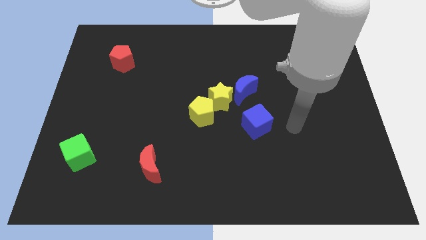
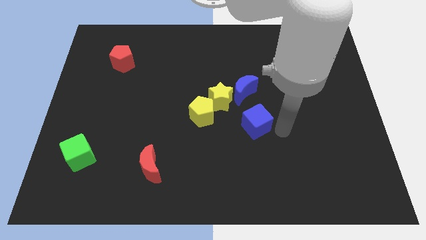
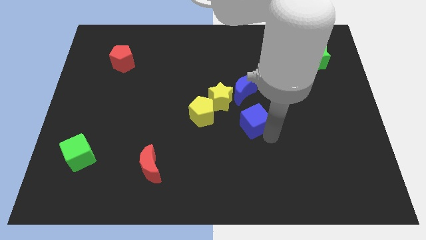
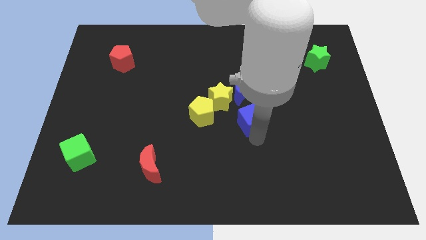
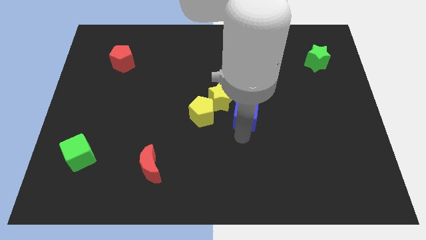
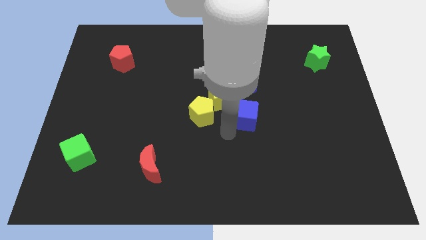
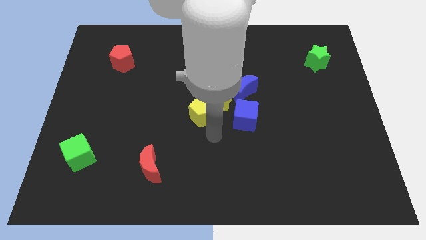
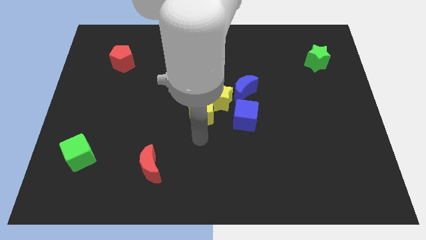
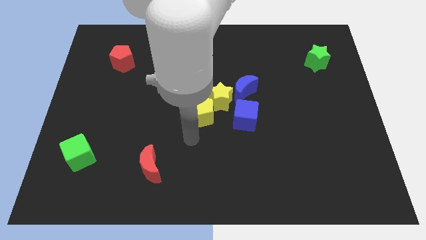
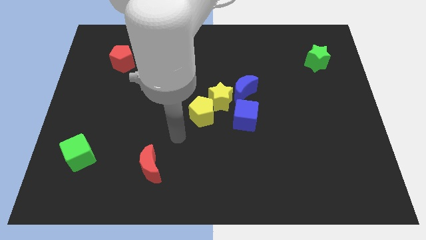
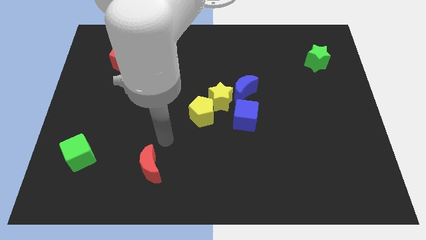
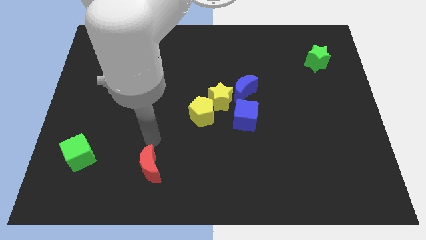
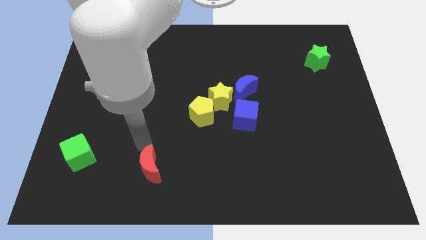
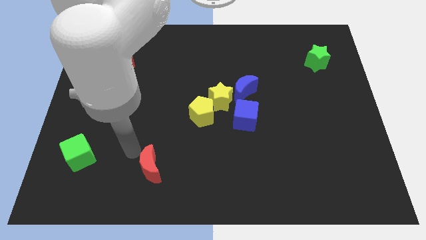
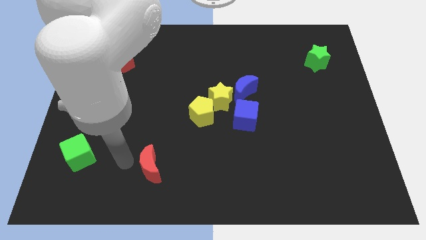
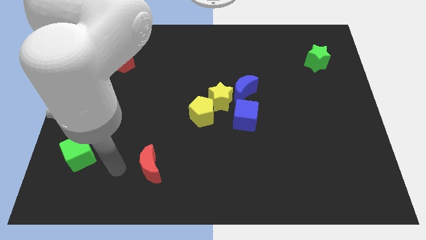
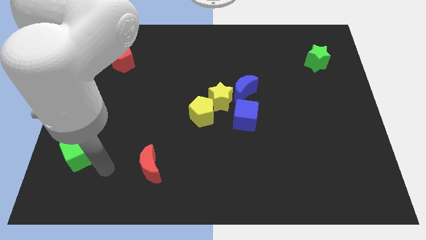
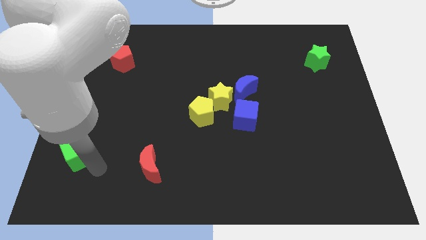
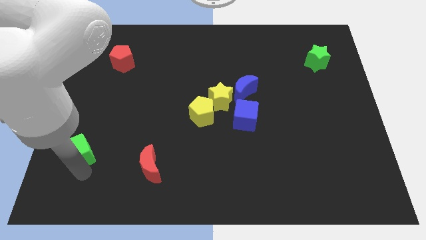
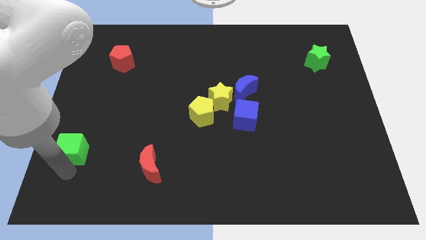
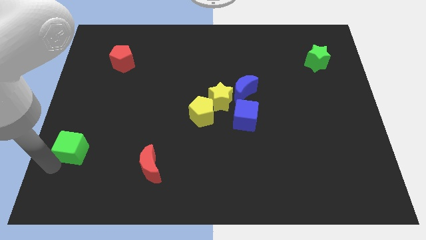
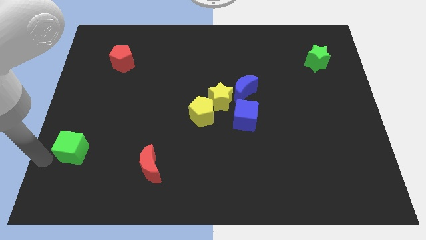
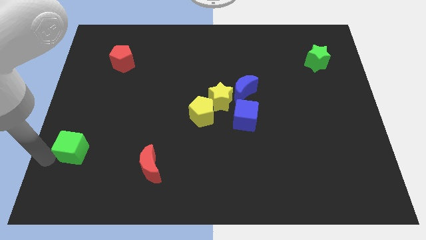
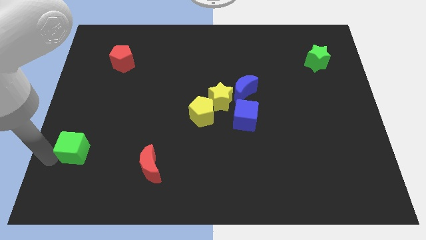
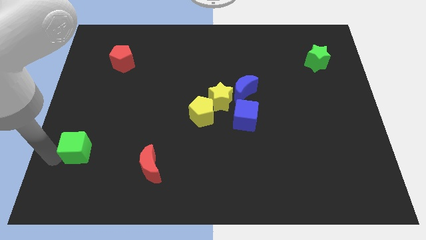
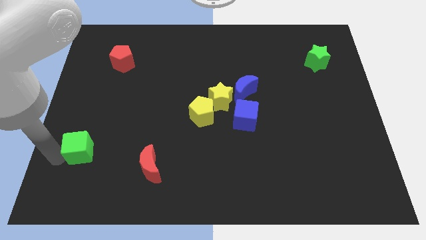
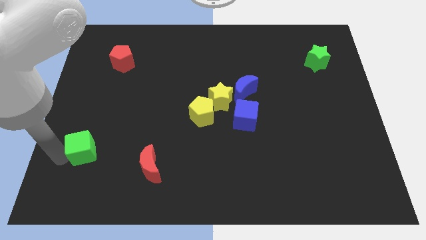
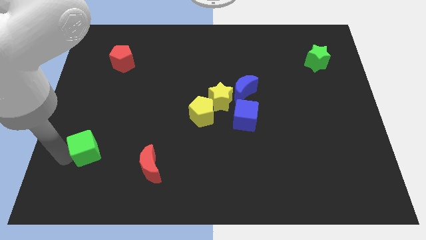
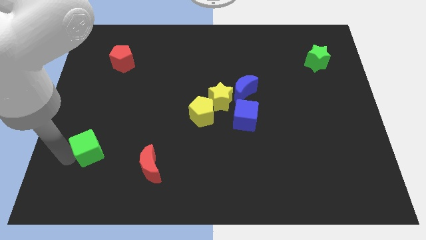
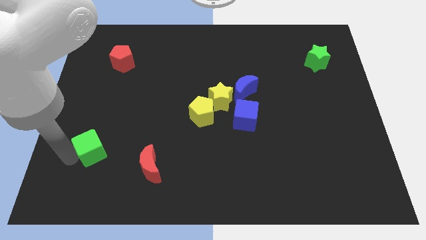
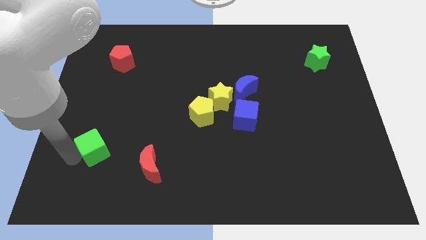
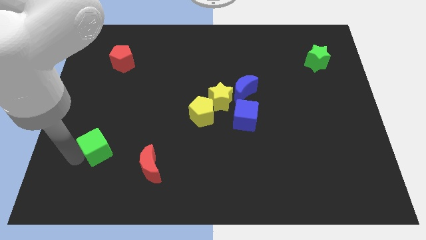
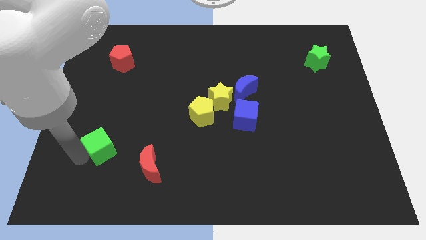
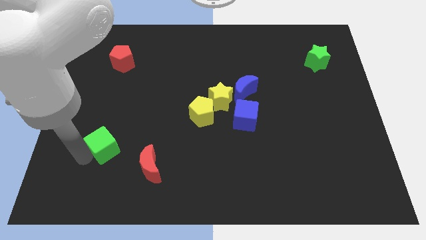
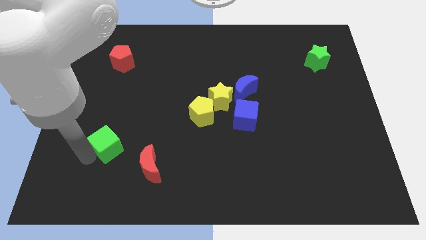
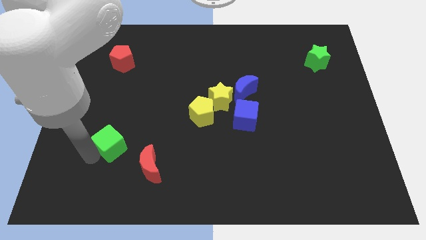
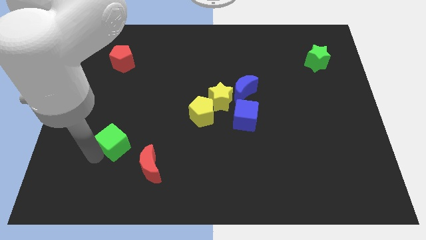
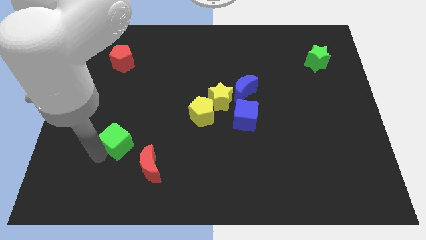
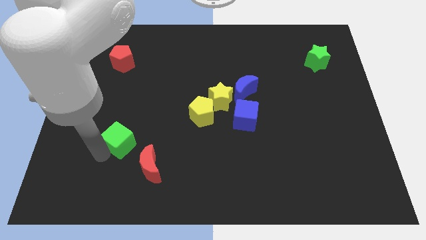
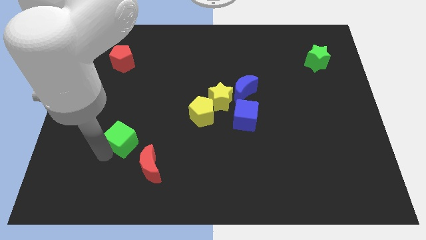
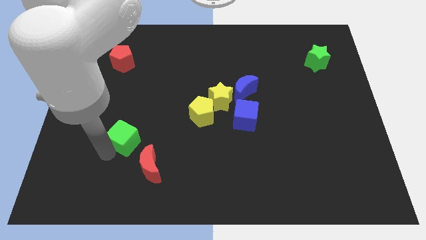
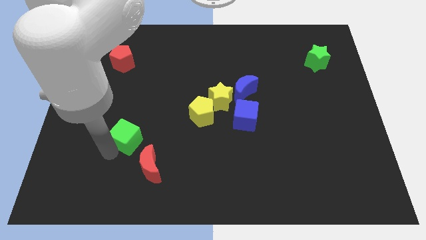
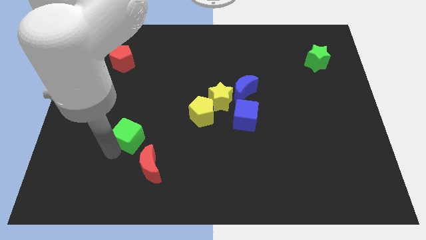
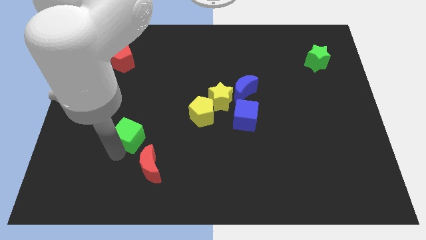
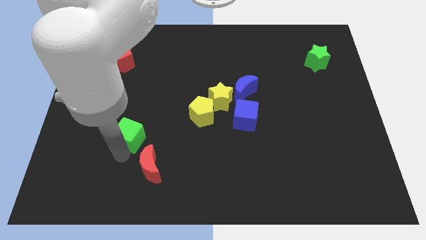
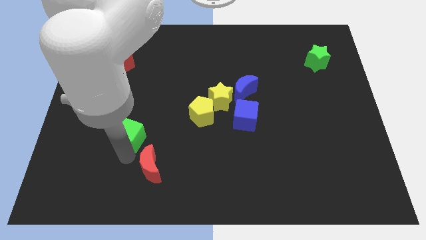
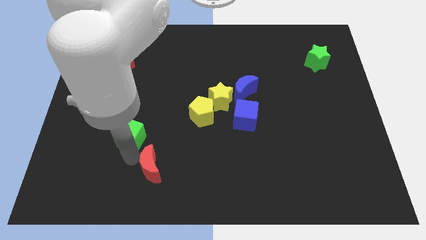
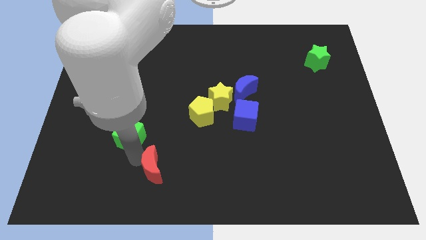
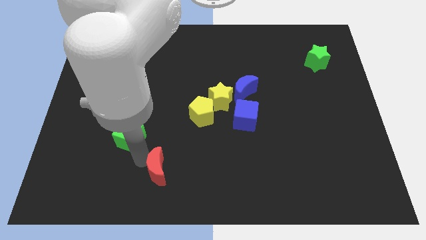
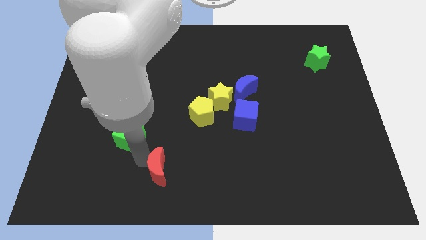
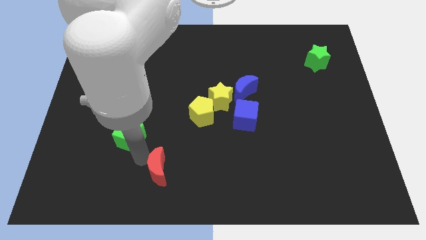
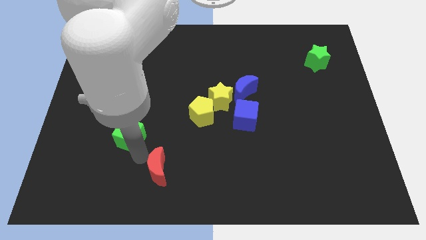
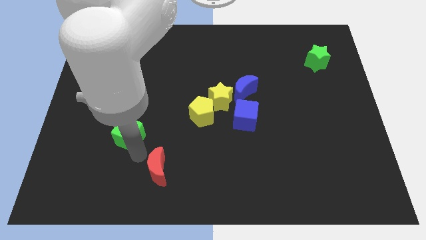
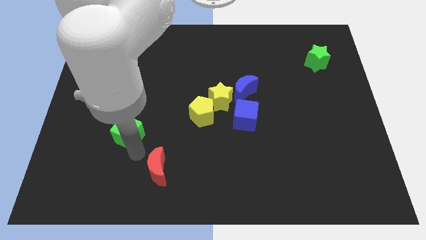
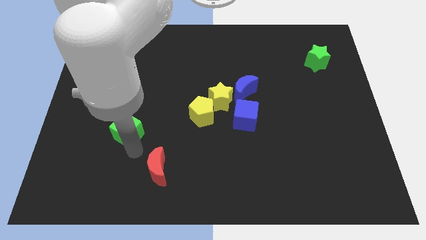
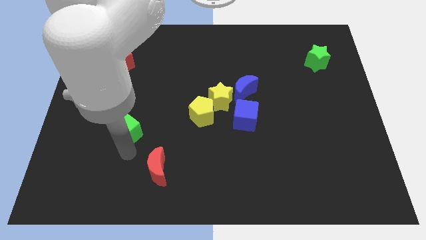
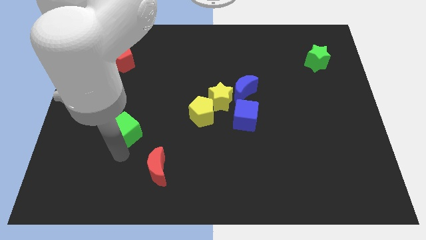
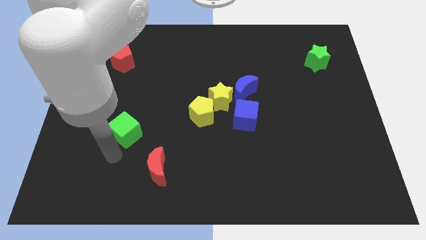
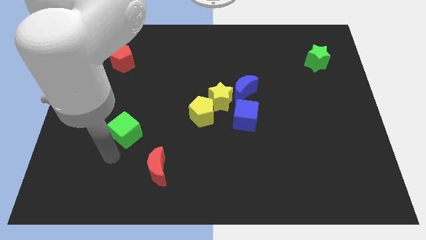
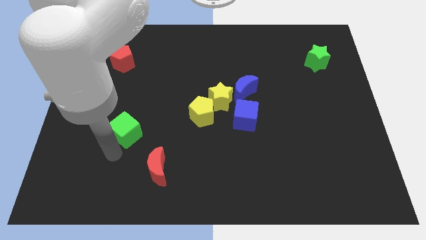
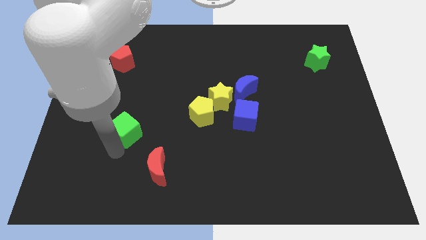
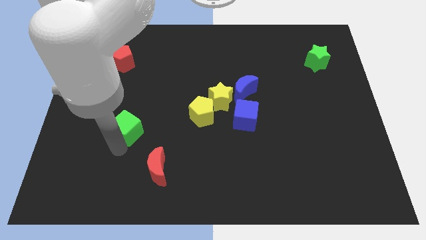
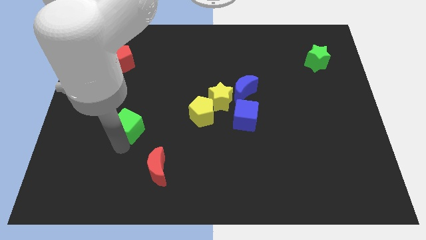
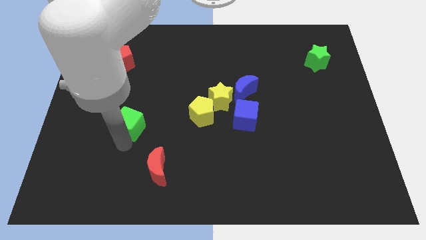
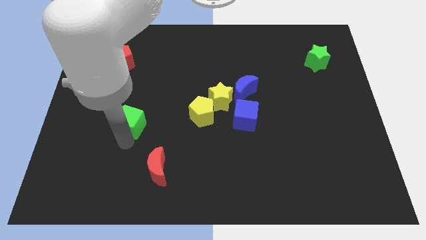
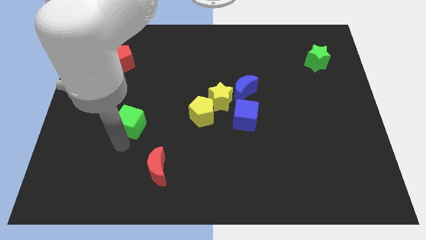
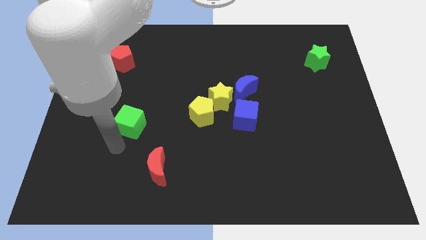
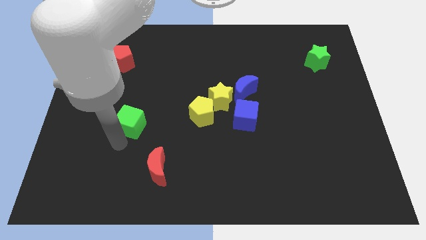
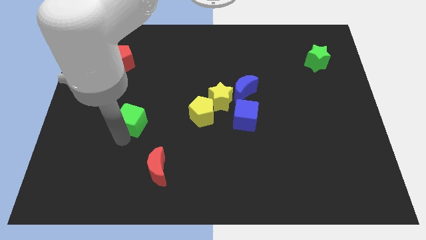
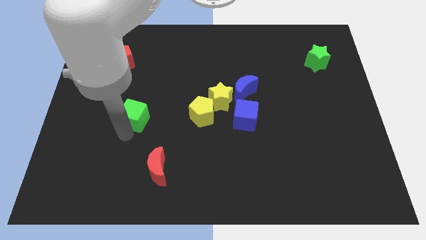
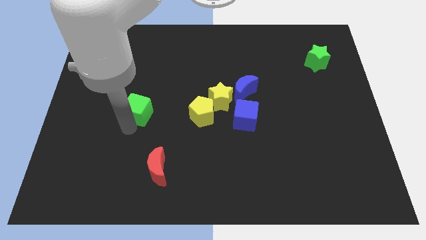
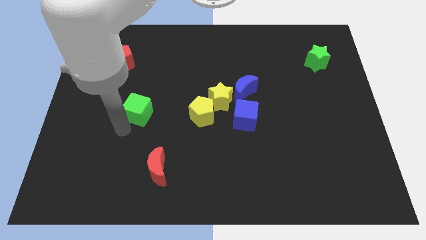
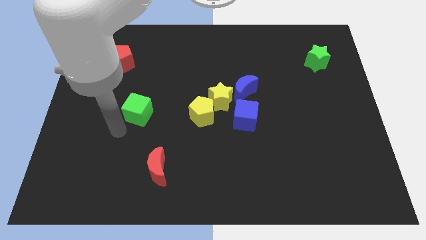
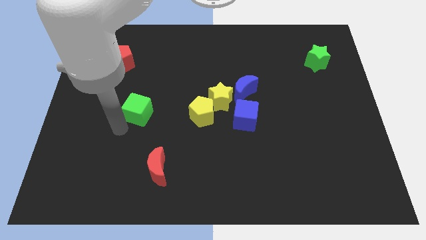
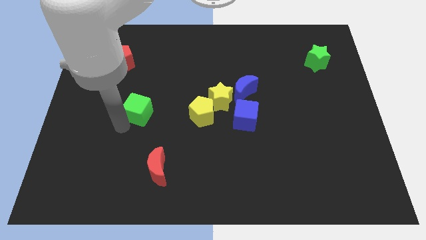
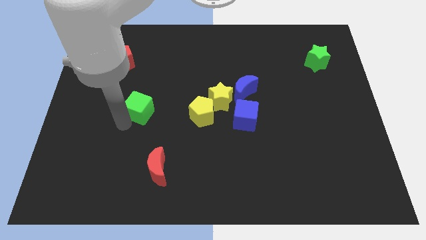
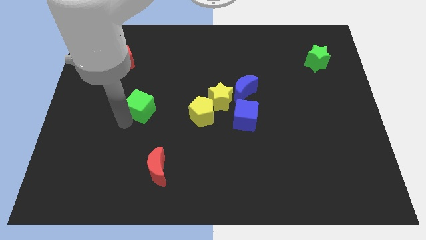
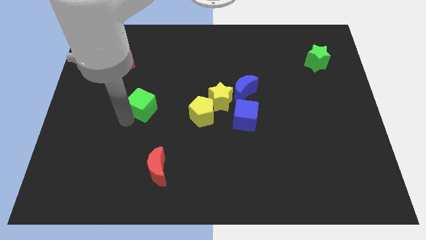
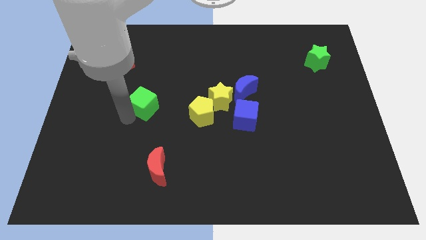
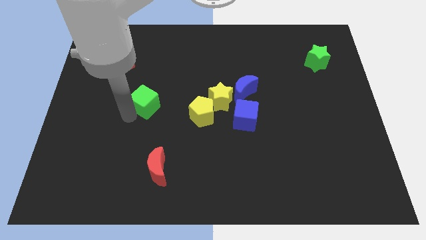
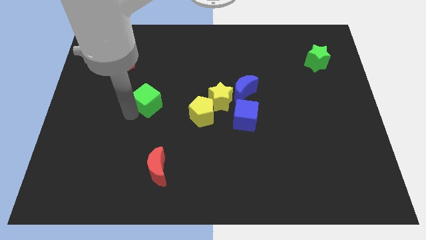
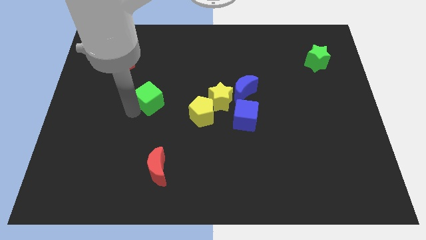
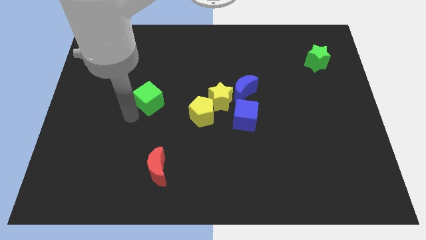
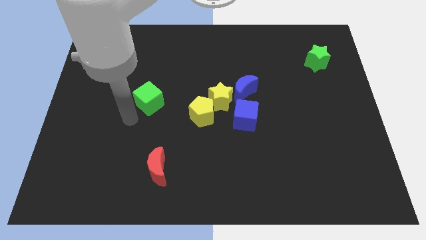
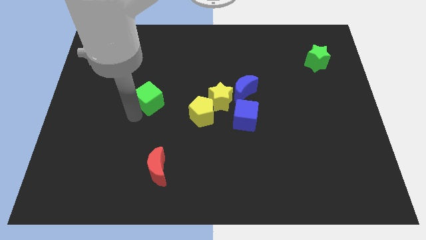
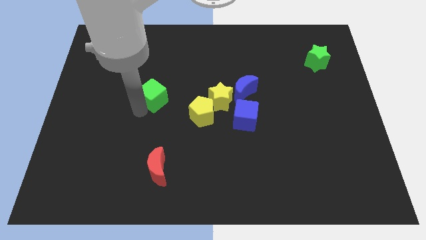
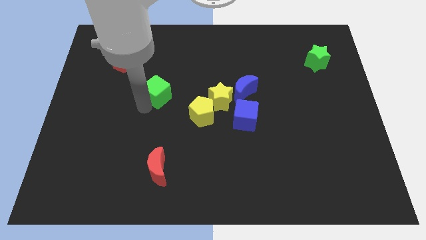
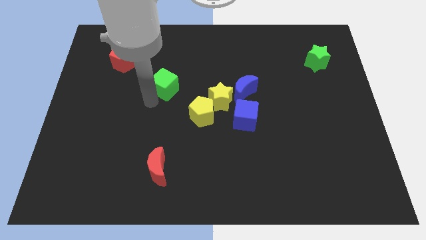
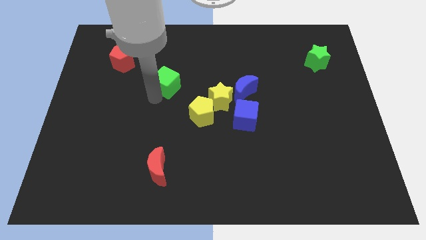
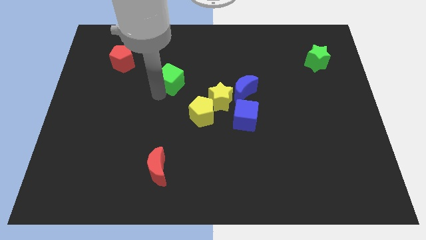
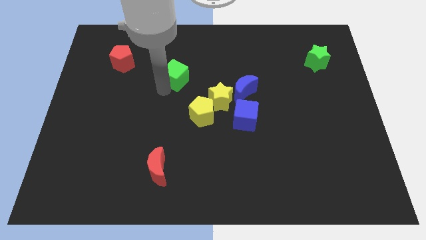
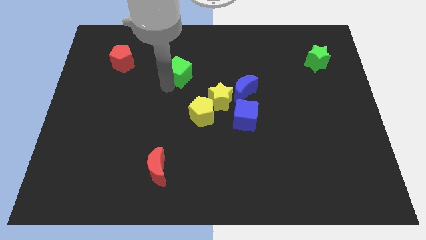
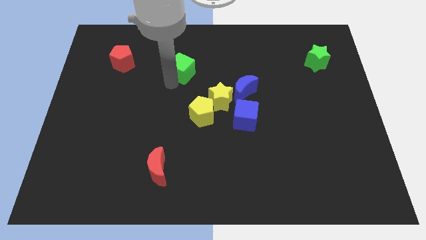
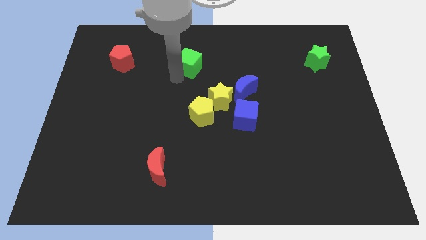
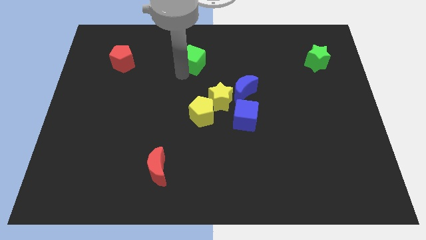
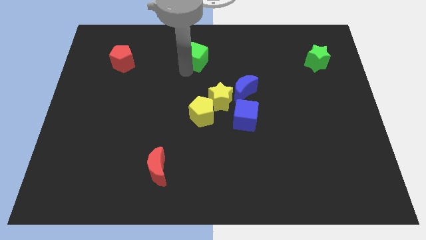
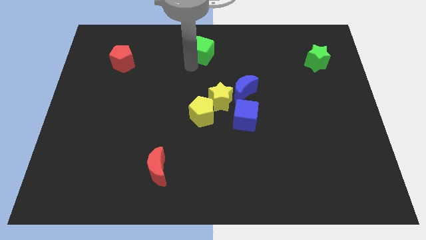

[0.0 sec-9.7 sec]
put the green cube to the towards your base
